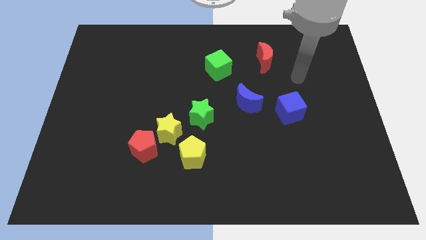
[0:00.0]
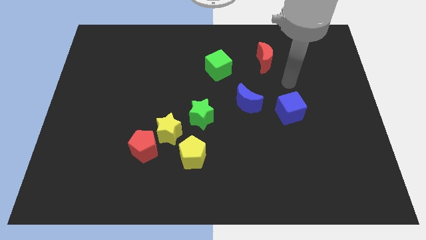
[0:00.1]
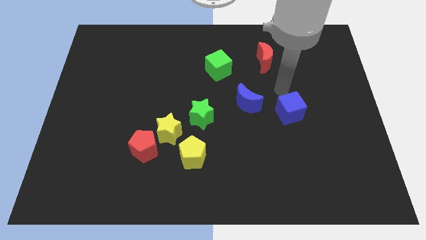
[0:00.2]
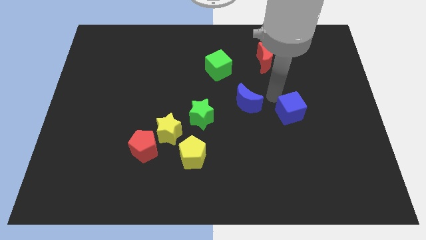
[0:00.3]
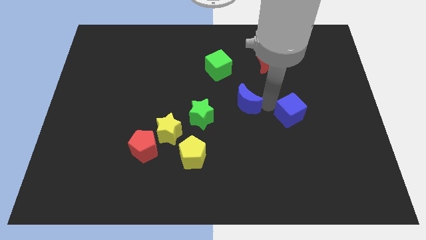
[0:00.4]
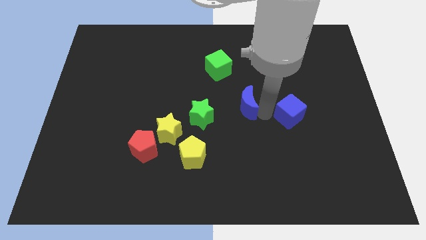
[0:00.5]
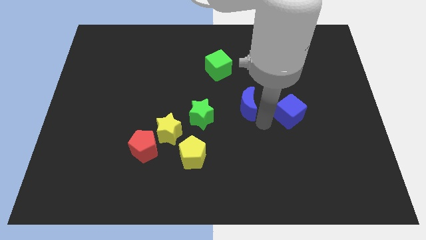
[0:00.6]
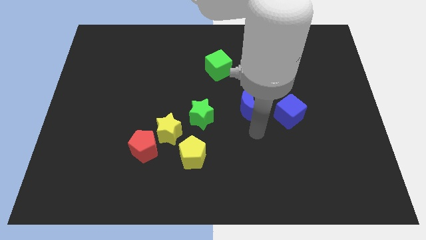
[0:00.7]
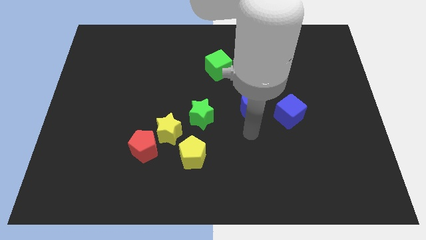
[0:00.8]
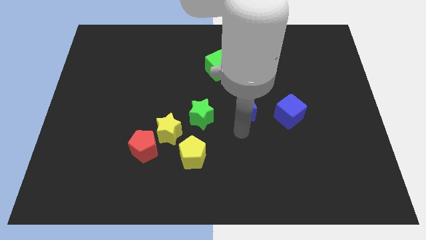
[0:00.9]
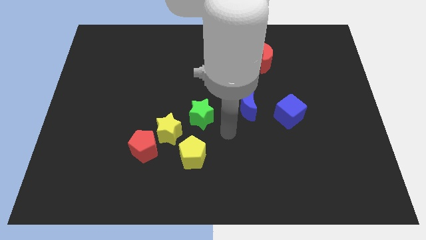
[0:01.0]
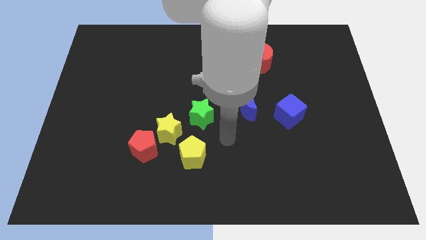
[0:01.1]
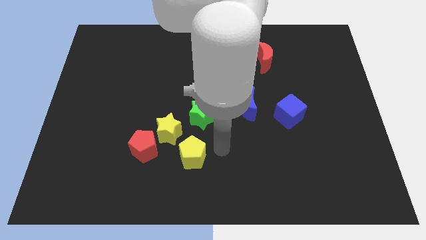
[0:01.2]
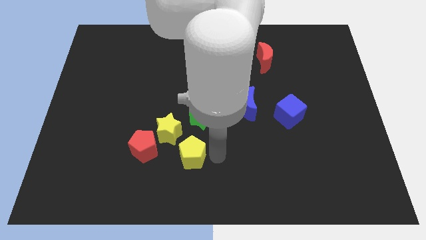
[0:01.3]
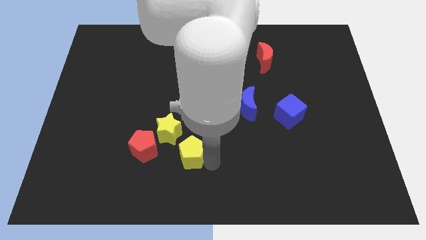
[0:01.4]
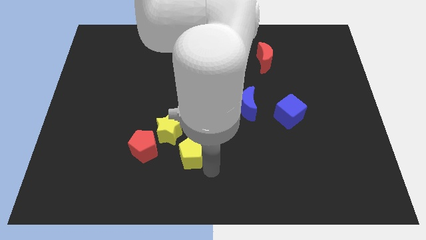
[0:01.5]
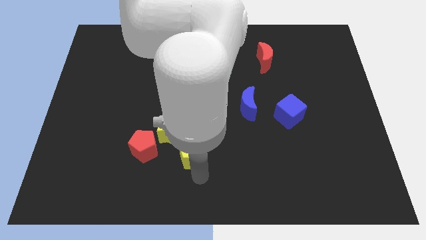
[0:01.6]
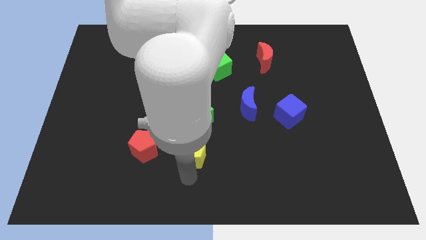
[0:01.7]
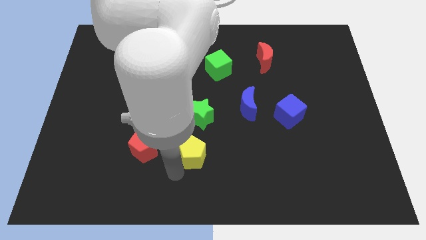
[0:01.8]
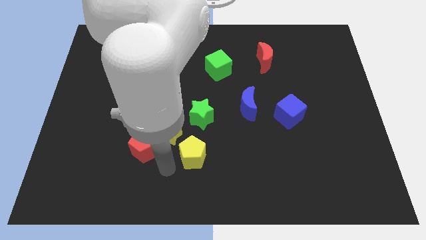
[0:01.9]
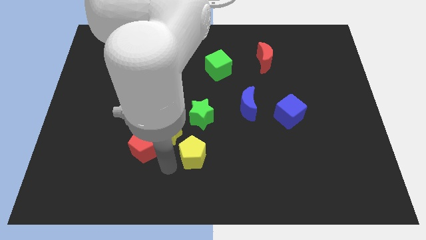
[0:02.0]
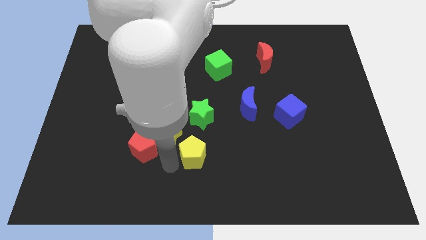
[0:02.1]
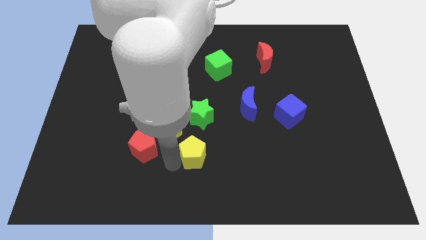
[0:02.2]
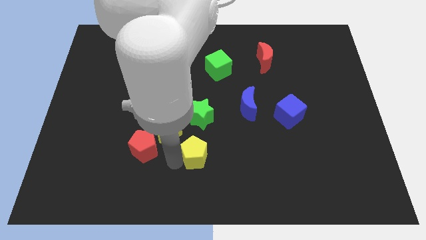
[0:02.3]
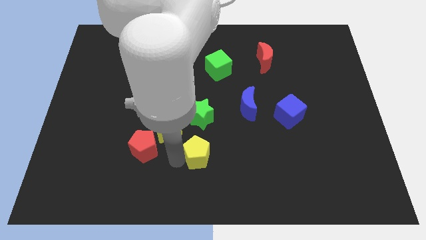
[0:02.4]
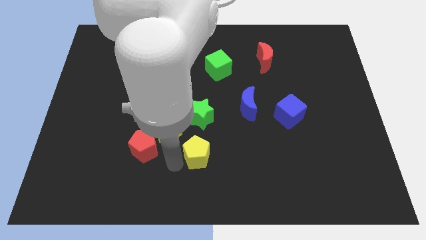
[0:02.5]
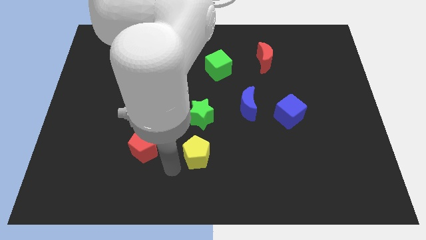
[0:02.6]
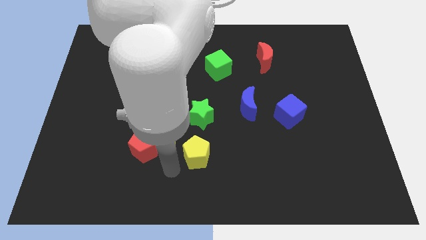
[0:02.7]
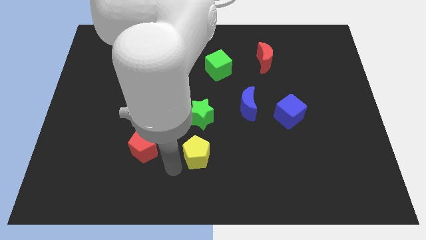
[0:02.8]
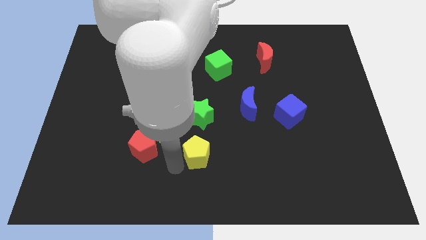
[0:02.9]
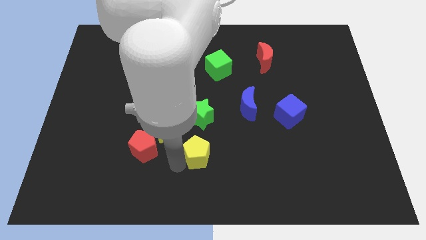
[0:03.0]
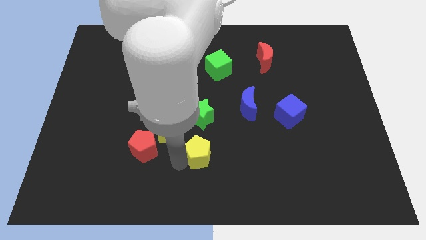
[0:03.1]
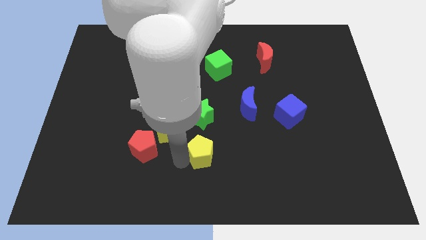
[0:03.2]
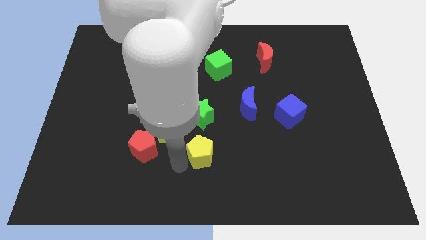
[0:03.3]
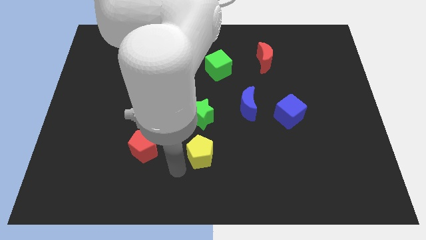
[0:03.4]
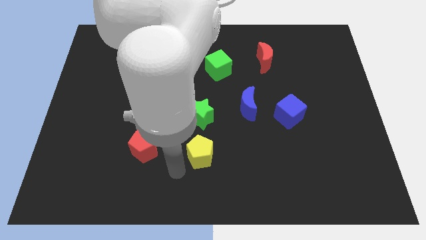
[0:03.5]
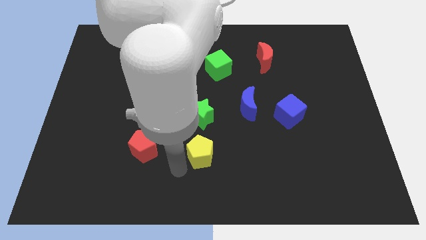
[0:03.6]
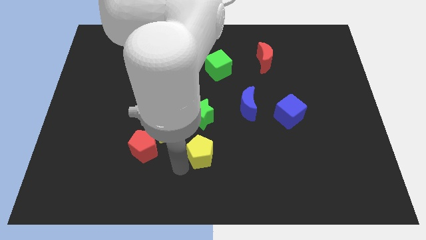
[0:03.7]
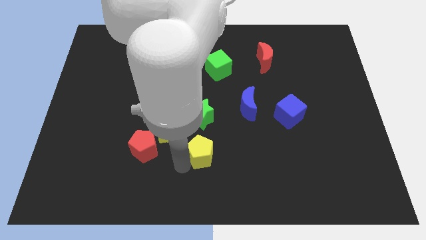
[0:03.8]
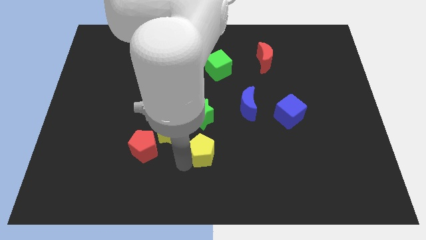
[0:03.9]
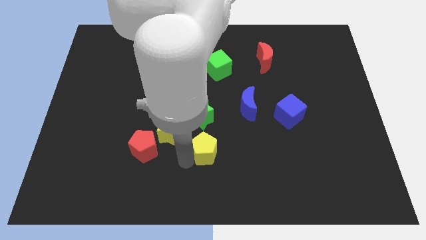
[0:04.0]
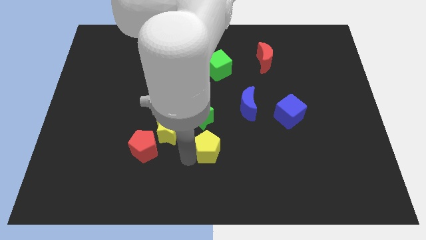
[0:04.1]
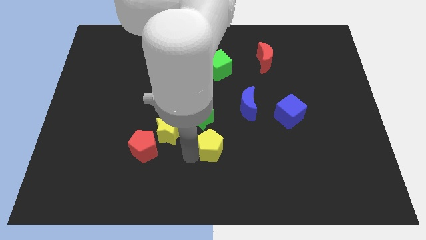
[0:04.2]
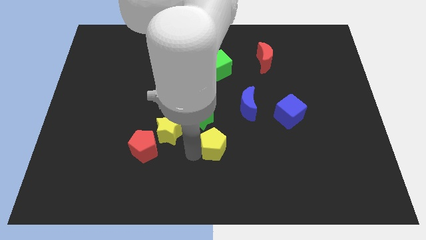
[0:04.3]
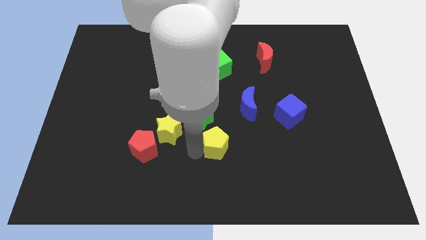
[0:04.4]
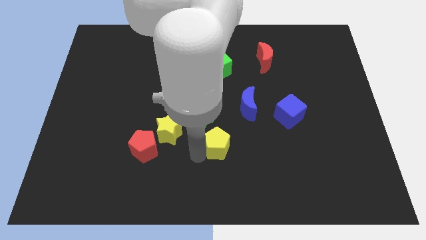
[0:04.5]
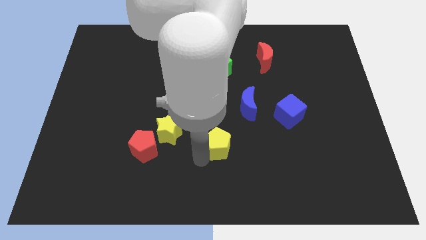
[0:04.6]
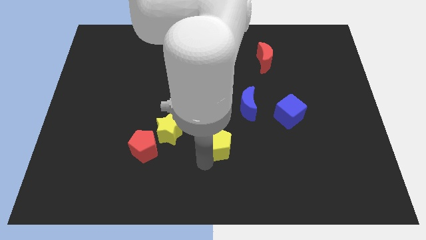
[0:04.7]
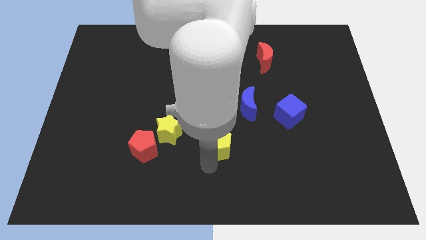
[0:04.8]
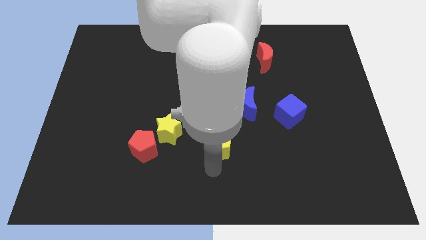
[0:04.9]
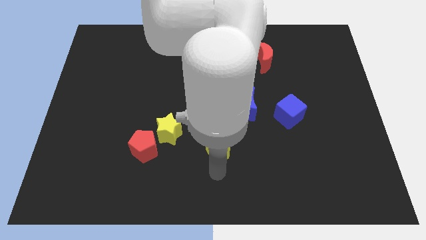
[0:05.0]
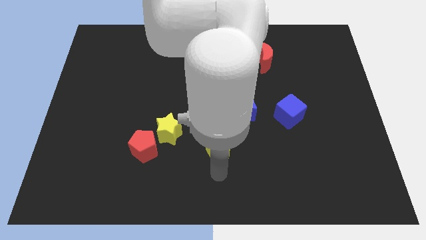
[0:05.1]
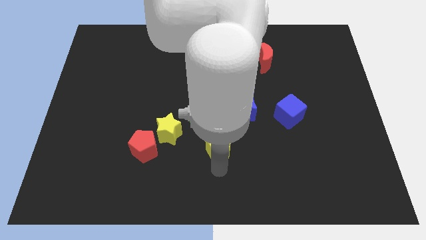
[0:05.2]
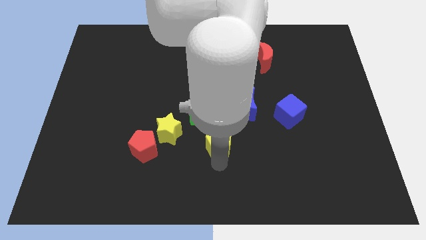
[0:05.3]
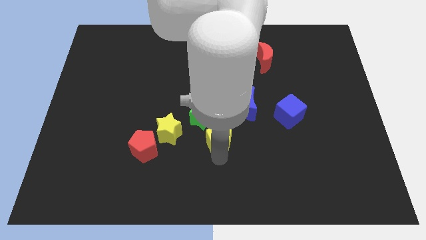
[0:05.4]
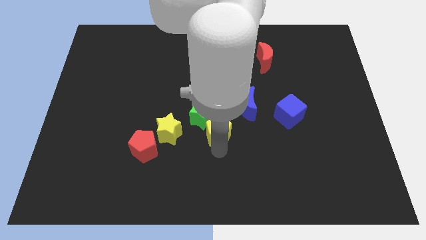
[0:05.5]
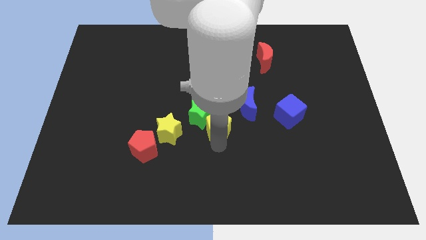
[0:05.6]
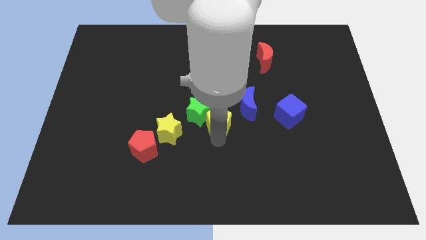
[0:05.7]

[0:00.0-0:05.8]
slightly move the yellow pentagon upwards

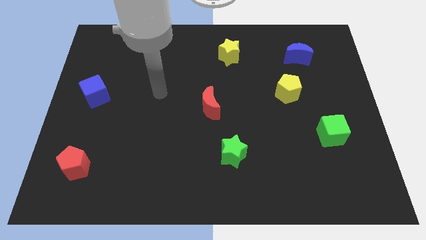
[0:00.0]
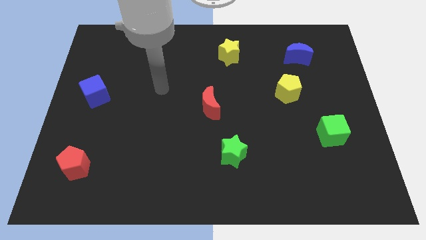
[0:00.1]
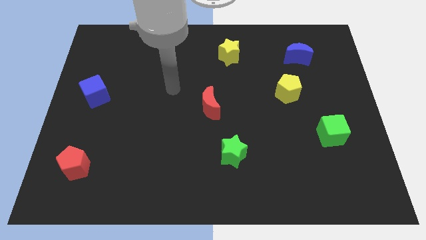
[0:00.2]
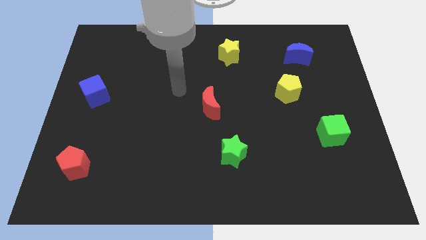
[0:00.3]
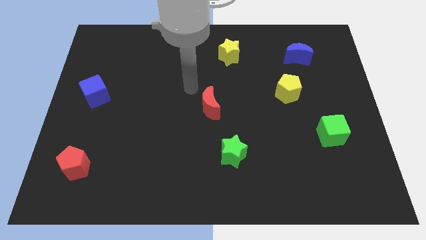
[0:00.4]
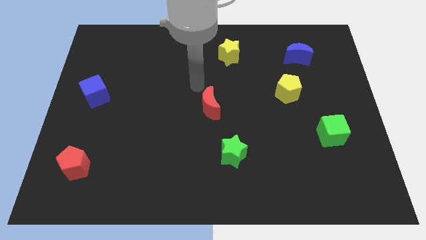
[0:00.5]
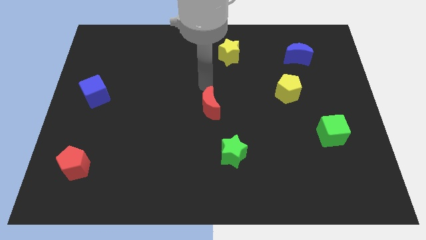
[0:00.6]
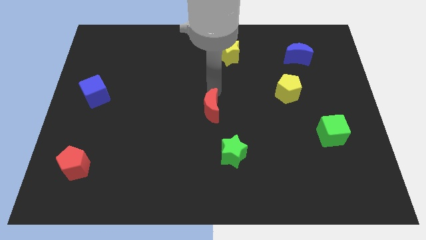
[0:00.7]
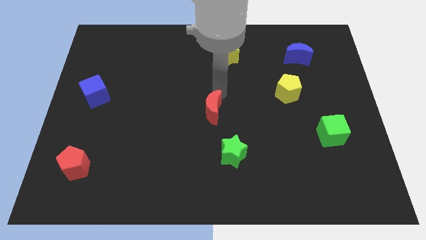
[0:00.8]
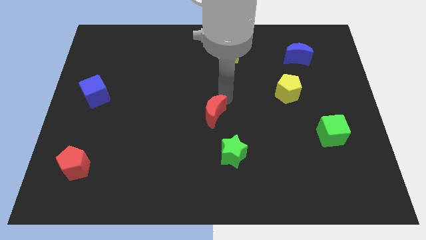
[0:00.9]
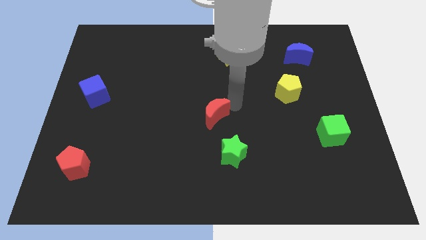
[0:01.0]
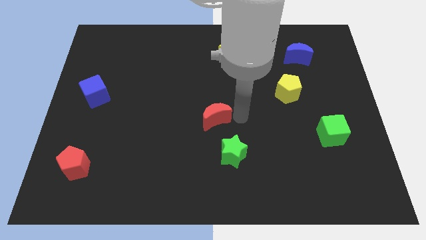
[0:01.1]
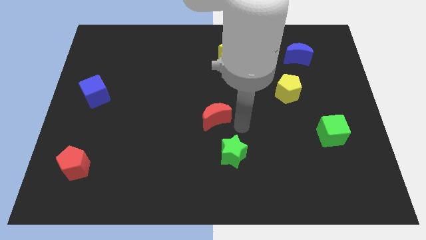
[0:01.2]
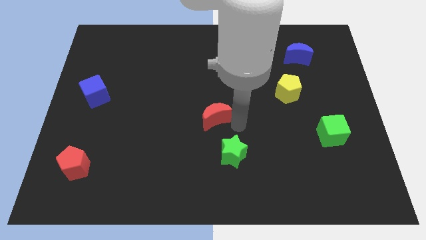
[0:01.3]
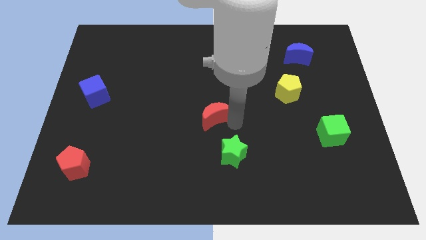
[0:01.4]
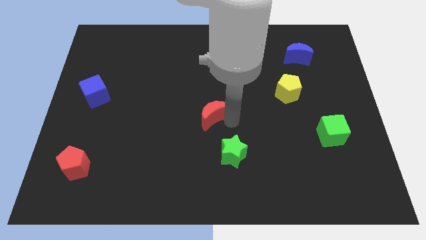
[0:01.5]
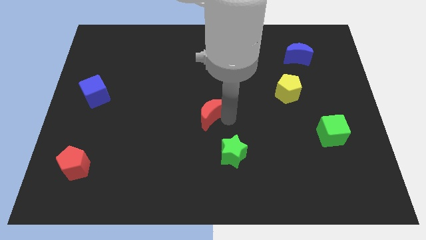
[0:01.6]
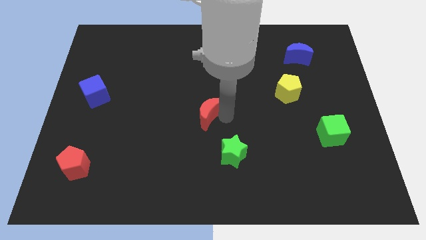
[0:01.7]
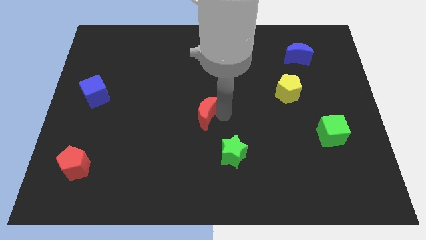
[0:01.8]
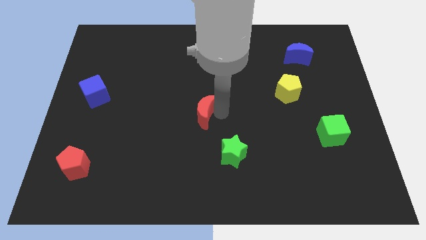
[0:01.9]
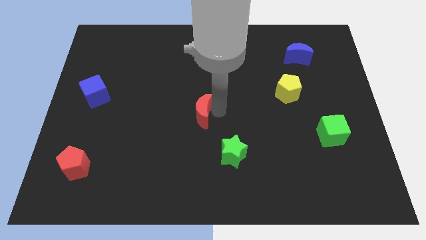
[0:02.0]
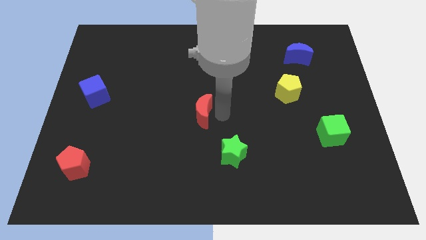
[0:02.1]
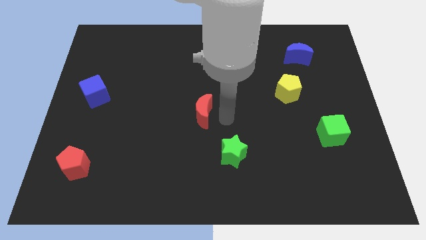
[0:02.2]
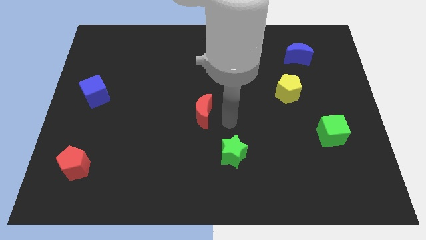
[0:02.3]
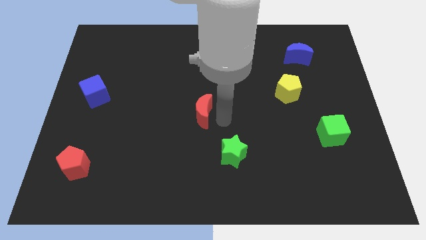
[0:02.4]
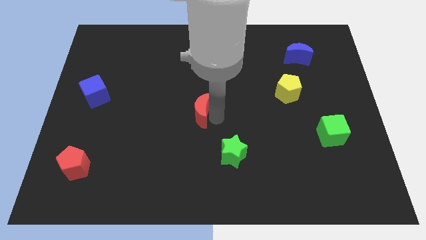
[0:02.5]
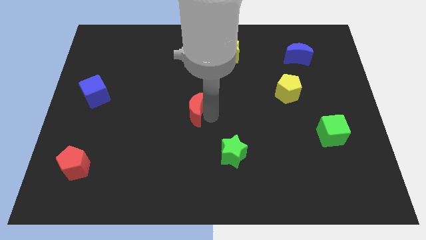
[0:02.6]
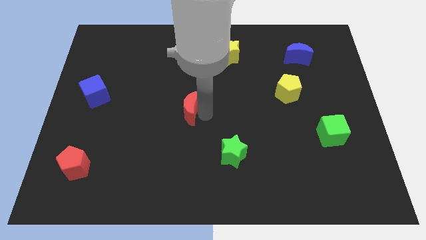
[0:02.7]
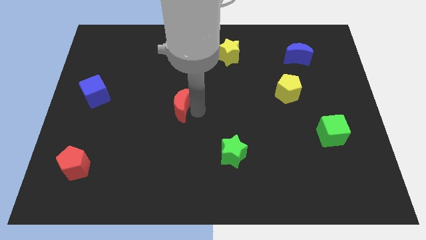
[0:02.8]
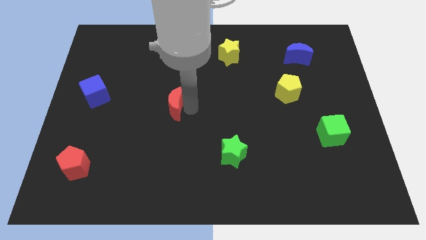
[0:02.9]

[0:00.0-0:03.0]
slightly move the red moon left
